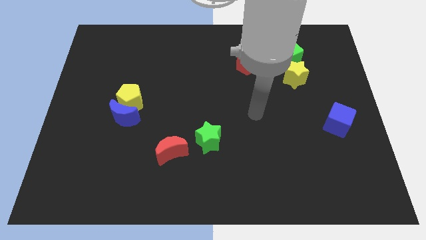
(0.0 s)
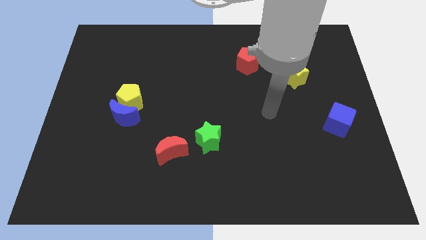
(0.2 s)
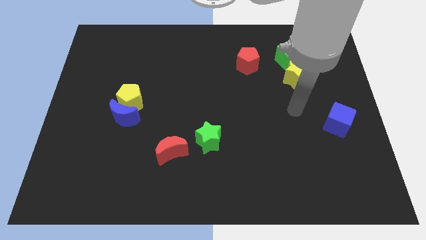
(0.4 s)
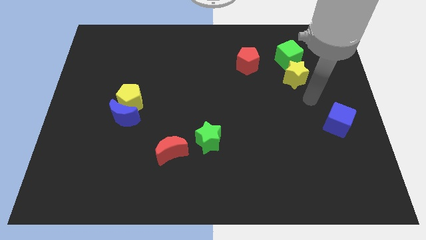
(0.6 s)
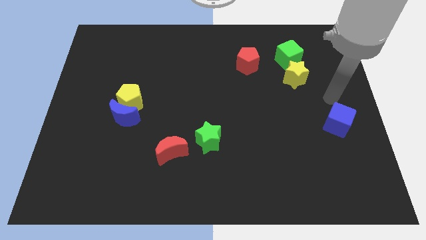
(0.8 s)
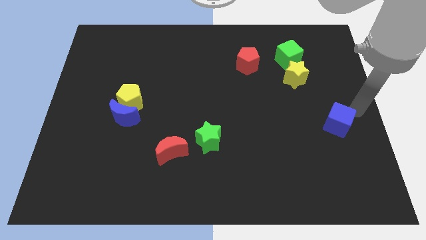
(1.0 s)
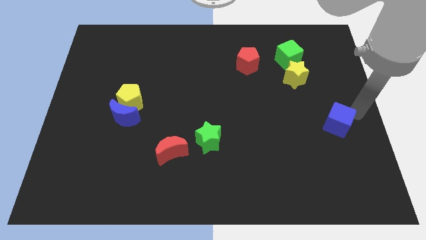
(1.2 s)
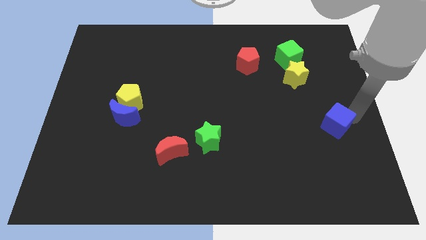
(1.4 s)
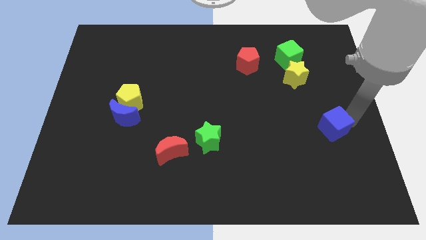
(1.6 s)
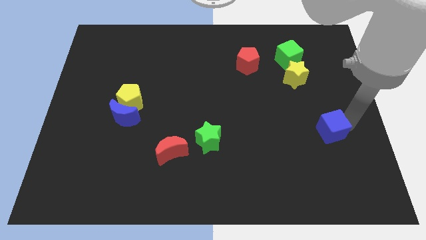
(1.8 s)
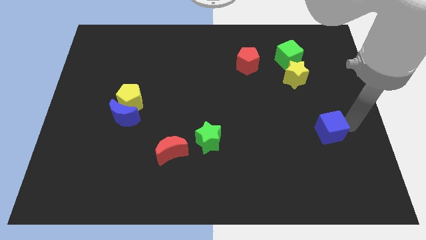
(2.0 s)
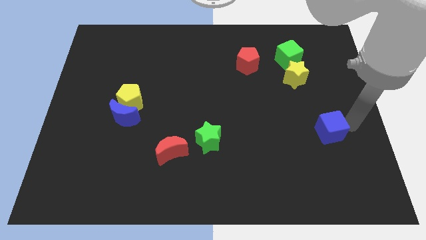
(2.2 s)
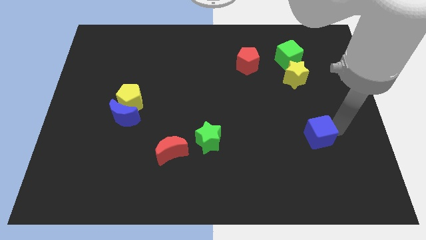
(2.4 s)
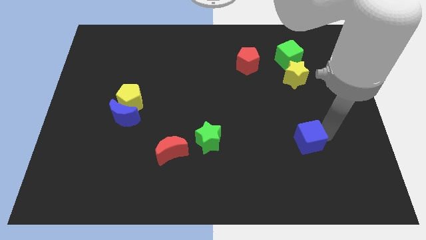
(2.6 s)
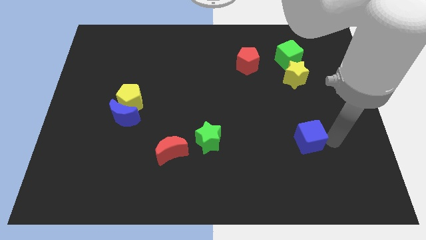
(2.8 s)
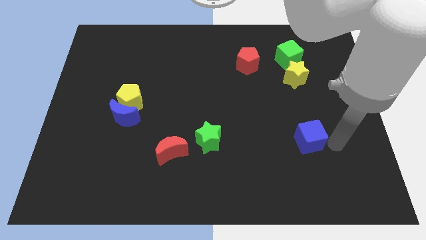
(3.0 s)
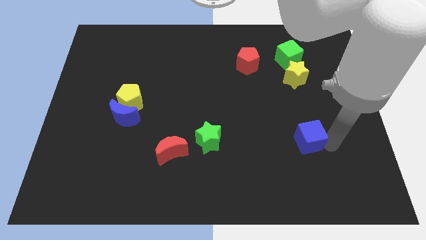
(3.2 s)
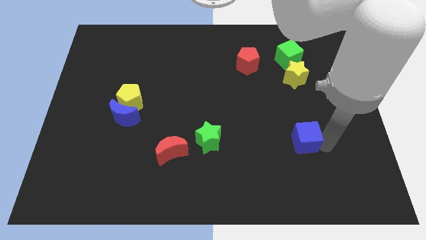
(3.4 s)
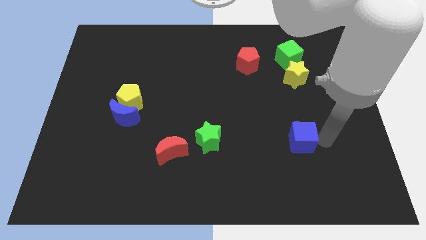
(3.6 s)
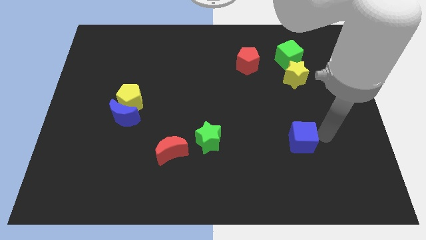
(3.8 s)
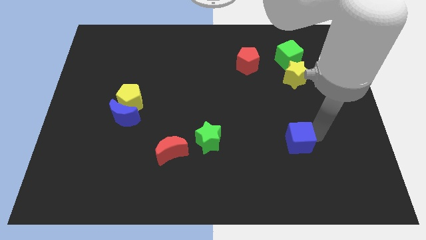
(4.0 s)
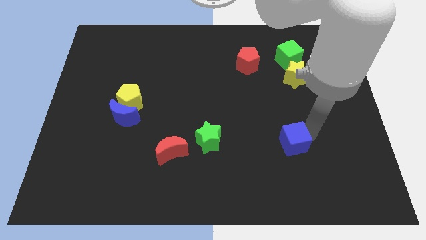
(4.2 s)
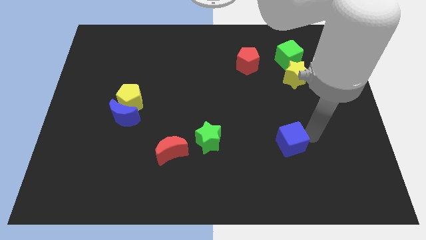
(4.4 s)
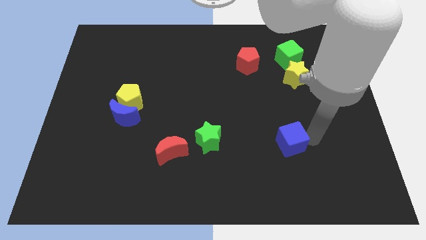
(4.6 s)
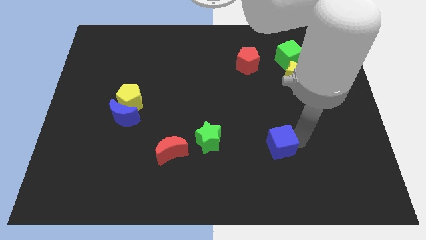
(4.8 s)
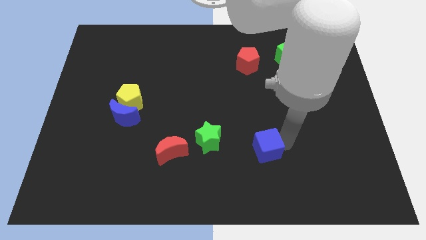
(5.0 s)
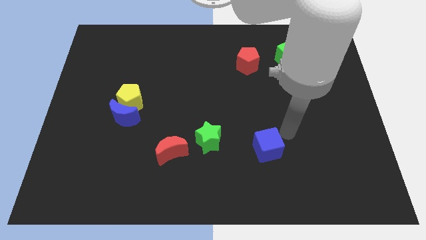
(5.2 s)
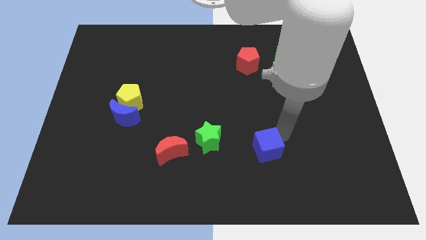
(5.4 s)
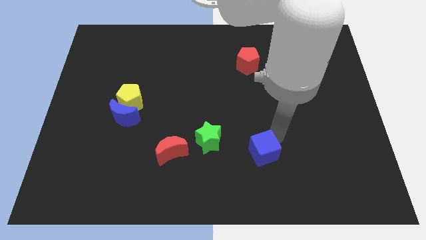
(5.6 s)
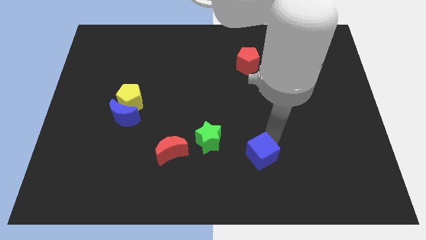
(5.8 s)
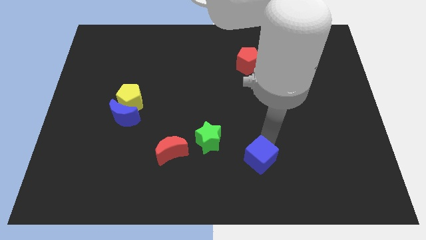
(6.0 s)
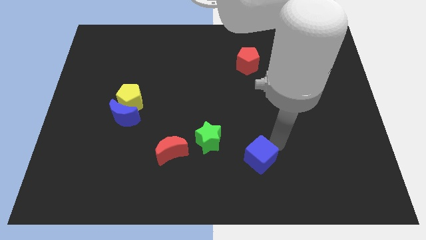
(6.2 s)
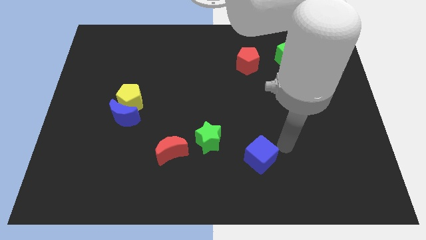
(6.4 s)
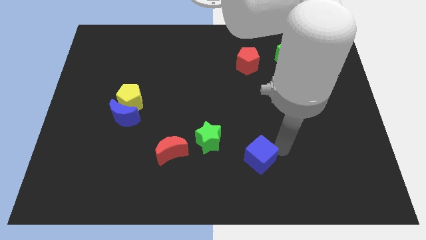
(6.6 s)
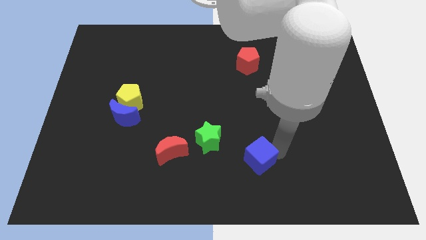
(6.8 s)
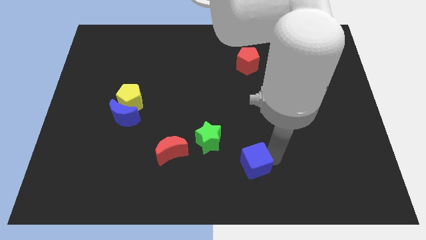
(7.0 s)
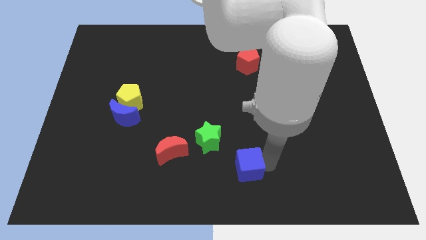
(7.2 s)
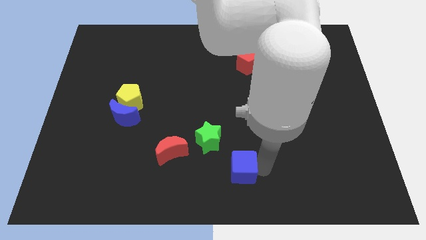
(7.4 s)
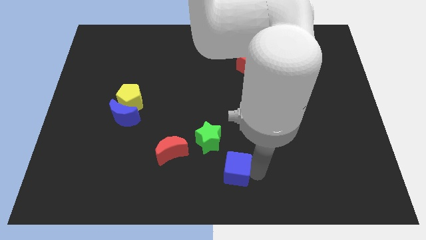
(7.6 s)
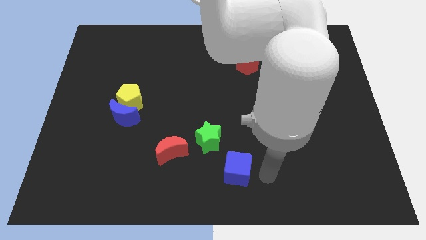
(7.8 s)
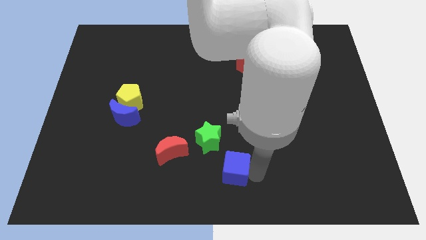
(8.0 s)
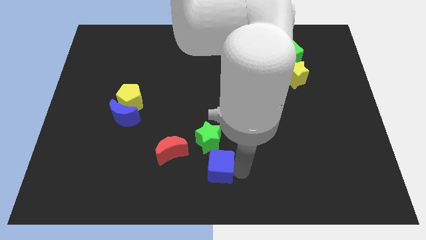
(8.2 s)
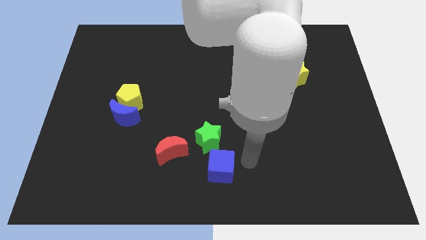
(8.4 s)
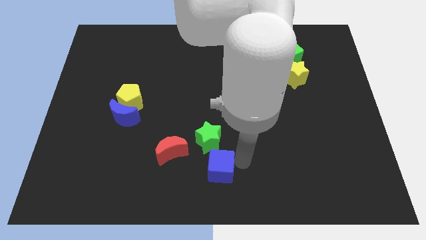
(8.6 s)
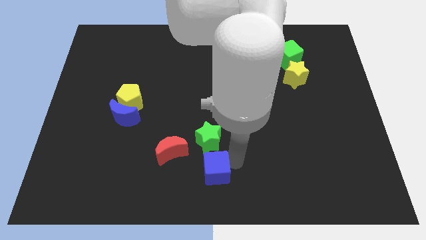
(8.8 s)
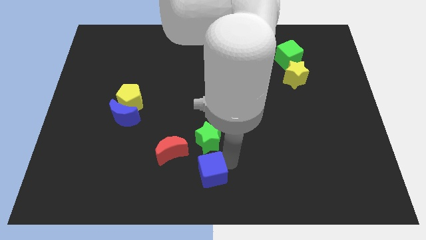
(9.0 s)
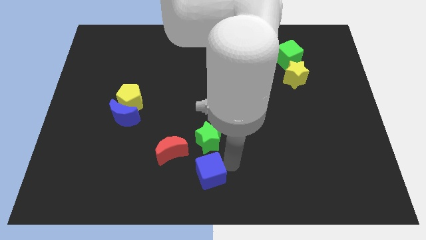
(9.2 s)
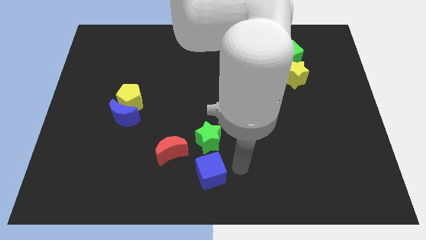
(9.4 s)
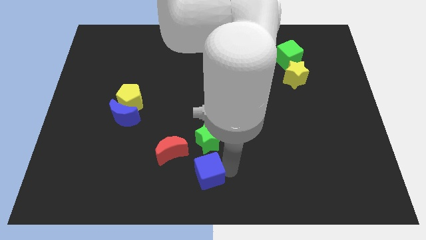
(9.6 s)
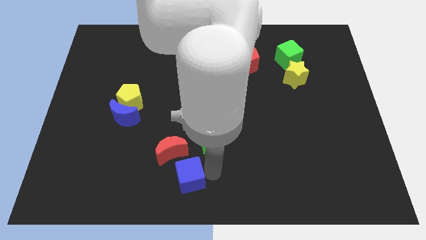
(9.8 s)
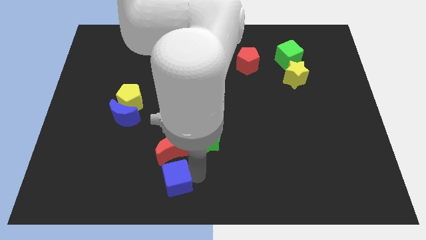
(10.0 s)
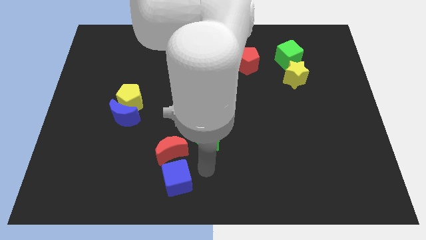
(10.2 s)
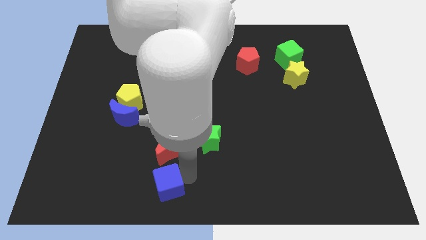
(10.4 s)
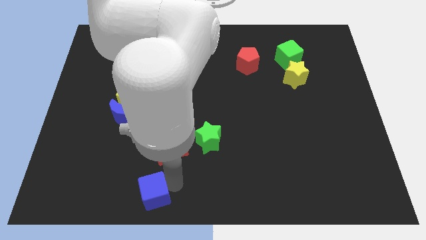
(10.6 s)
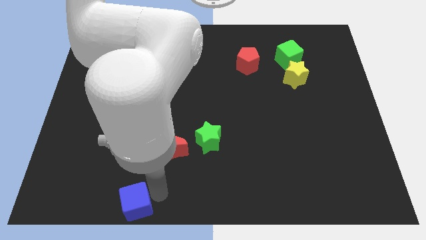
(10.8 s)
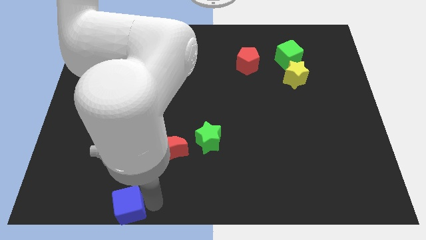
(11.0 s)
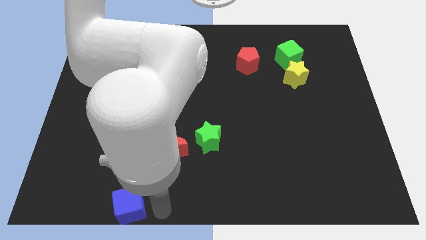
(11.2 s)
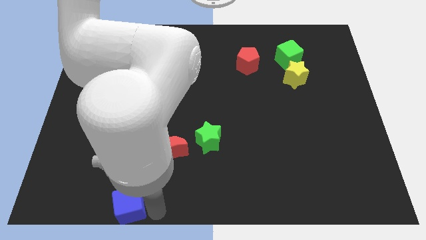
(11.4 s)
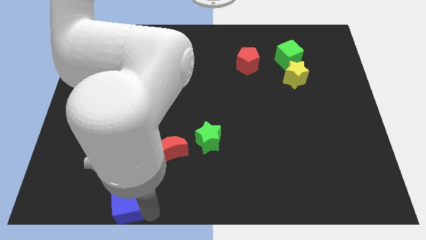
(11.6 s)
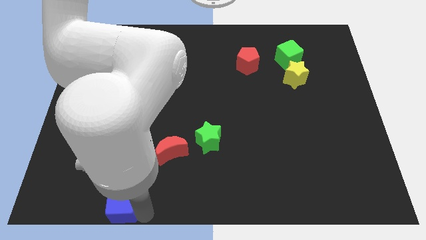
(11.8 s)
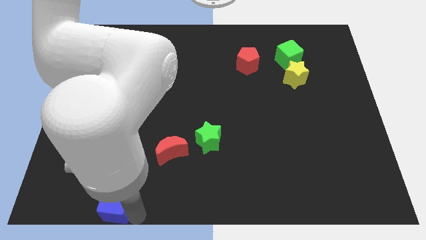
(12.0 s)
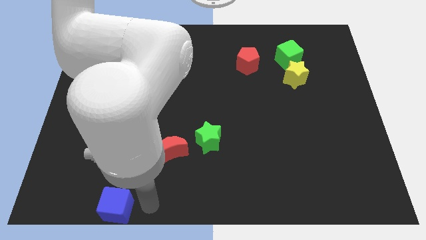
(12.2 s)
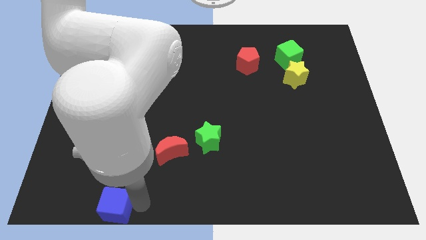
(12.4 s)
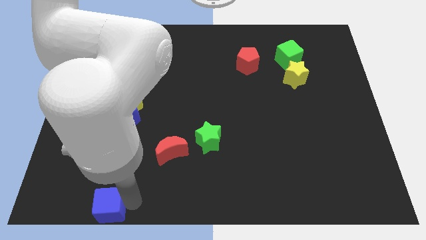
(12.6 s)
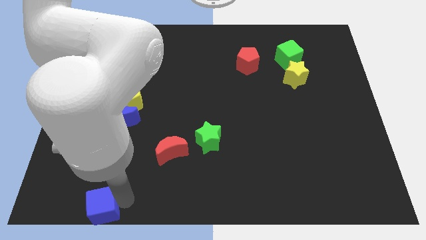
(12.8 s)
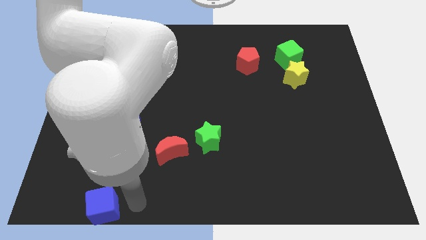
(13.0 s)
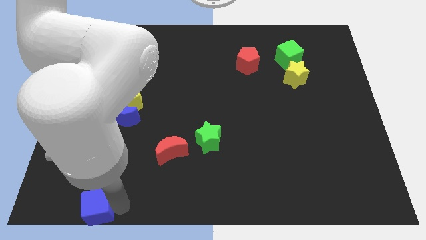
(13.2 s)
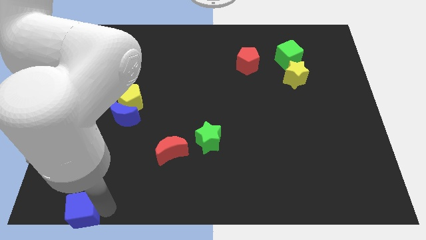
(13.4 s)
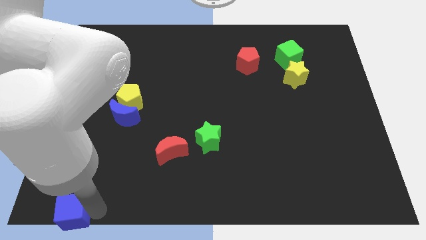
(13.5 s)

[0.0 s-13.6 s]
put the blue cube to the lower left corner
